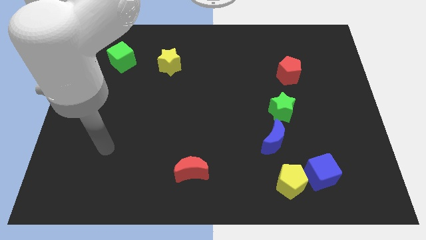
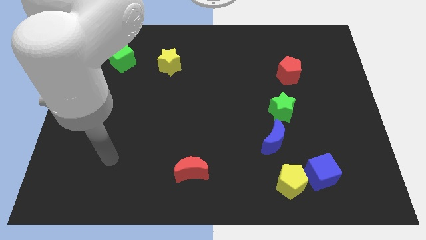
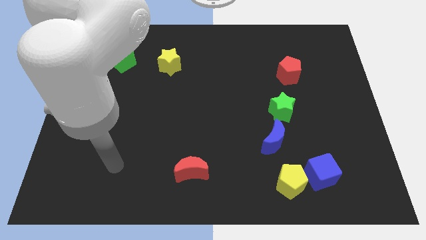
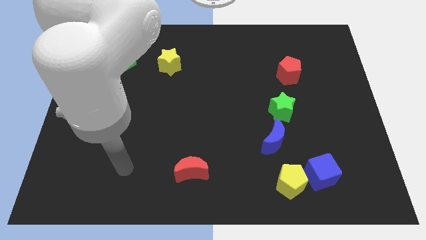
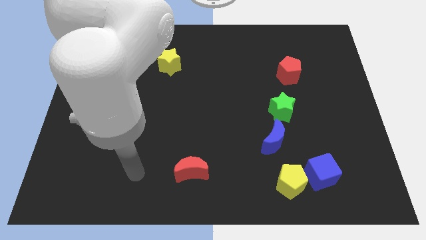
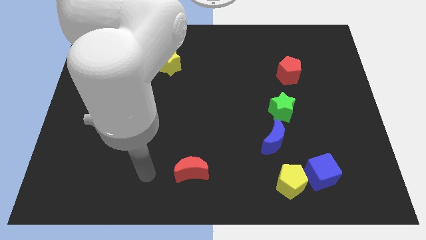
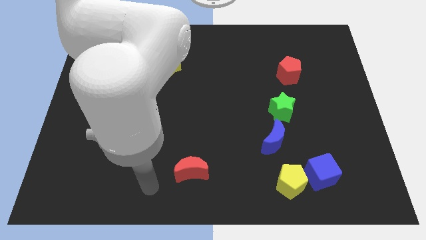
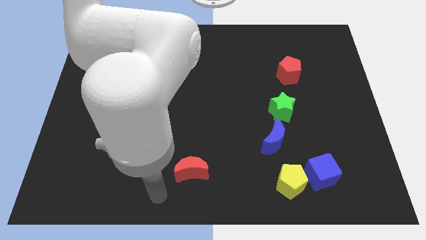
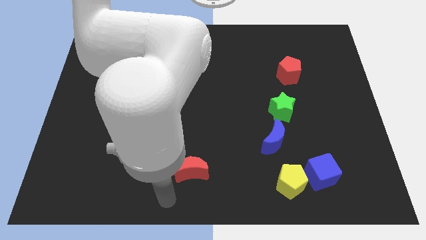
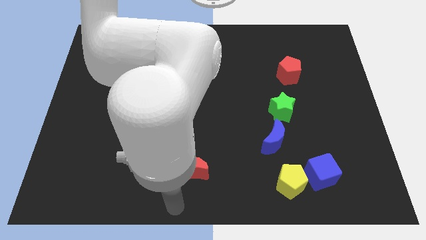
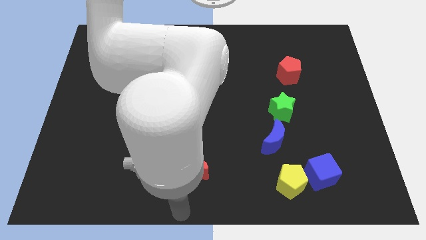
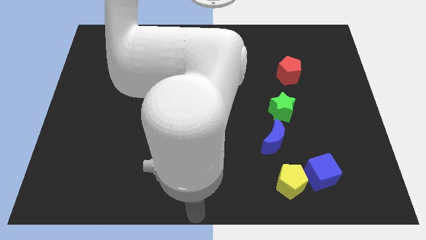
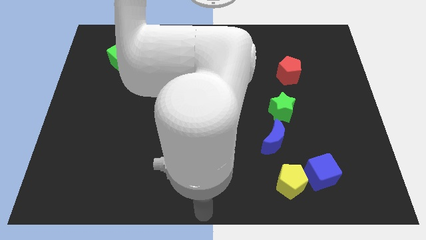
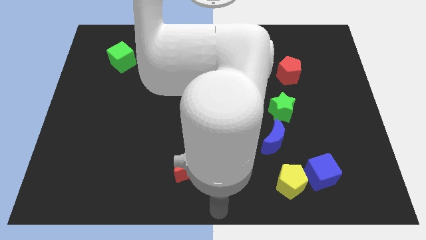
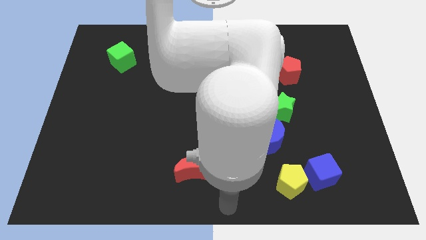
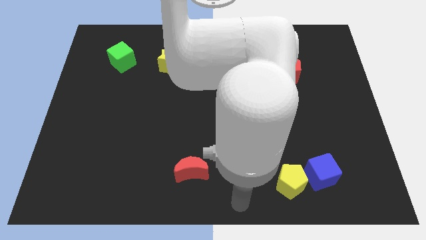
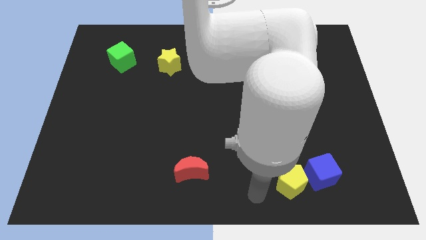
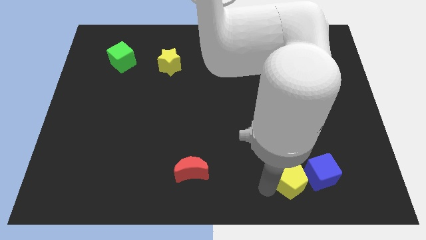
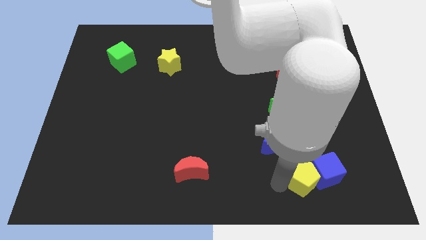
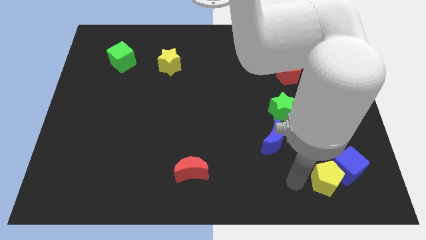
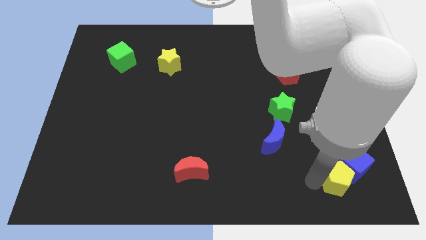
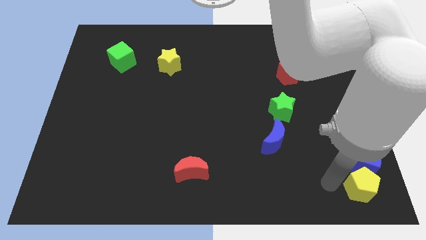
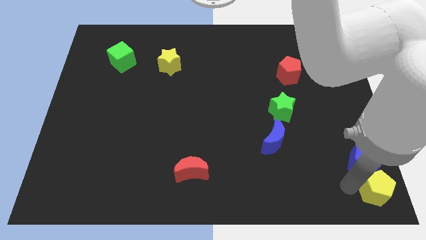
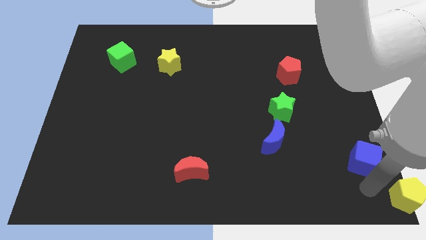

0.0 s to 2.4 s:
separate the blue cube from the yellow pentagon

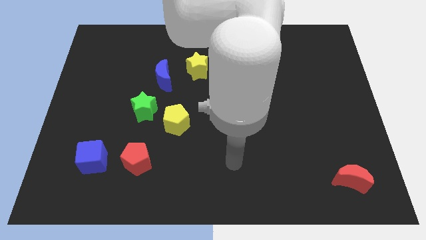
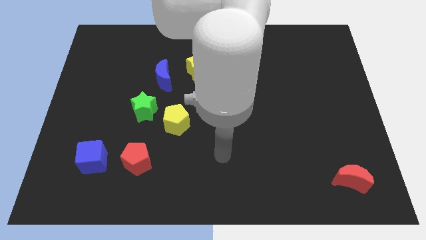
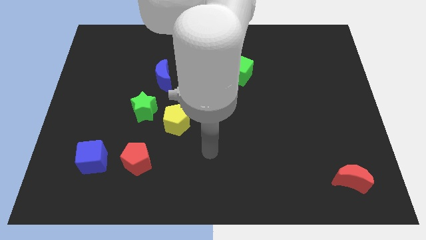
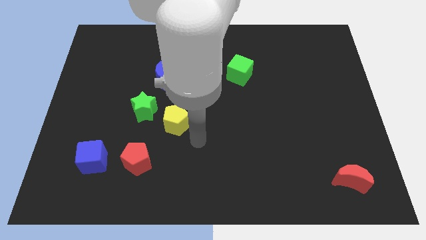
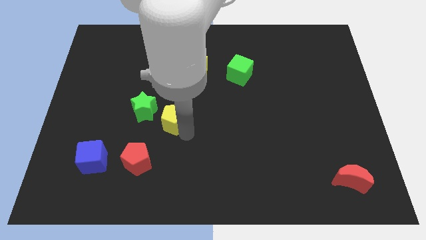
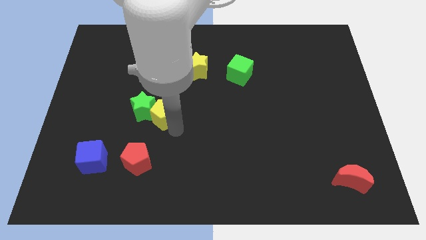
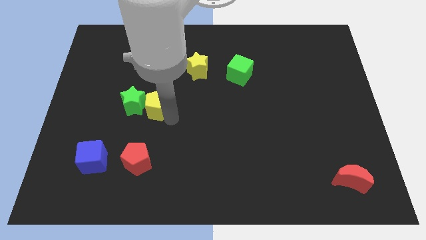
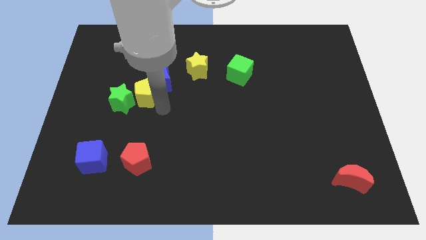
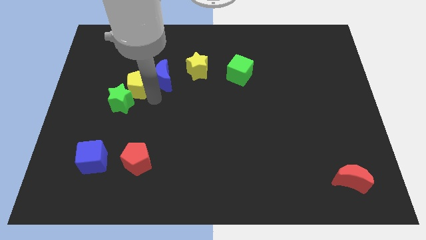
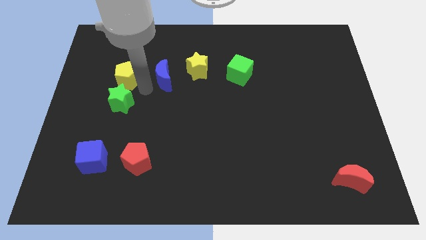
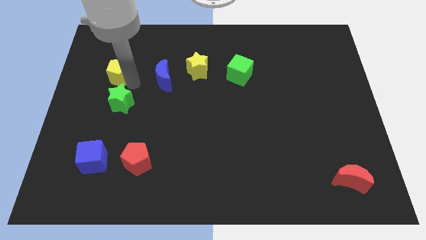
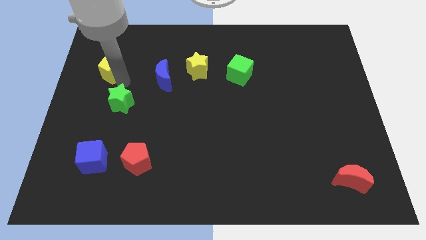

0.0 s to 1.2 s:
move the green star away from the yellow pentagon

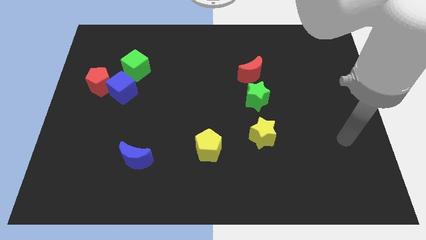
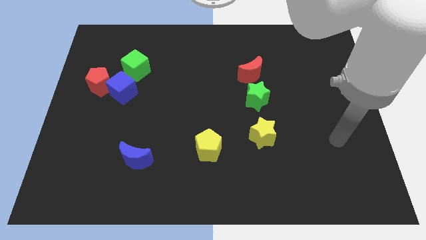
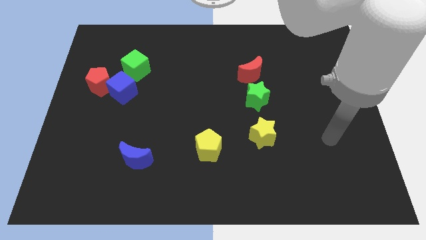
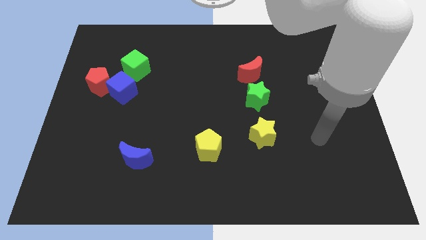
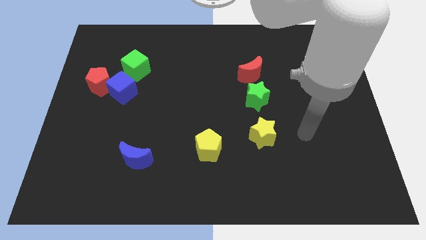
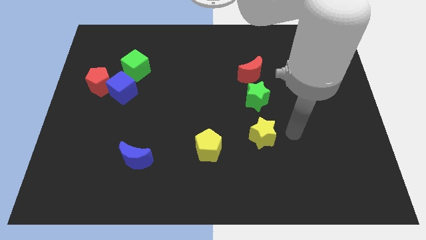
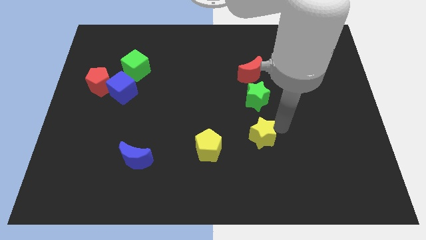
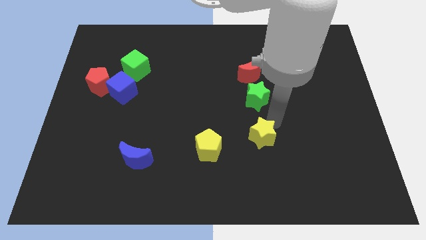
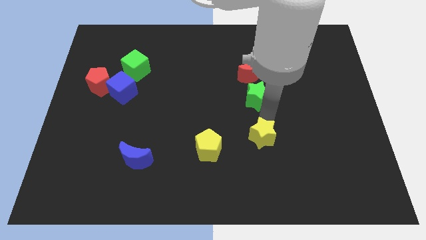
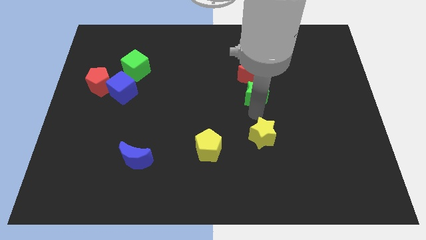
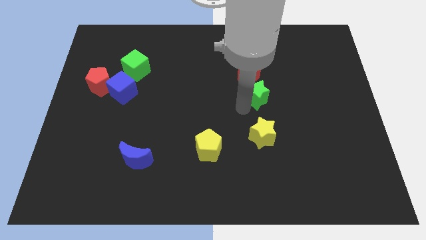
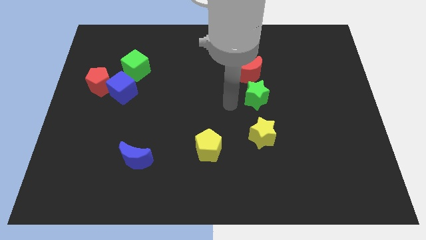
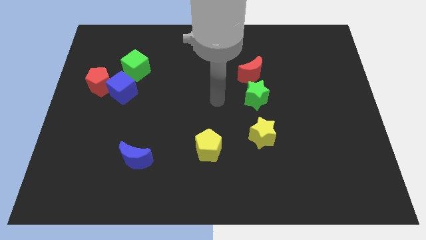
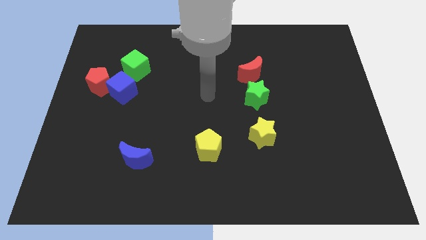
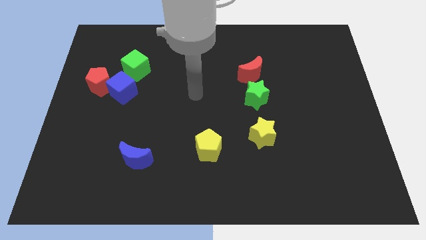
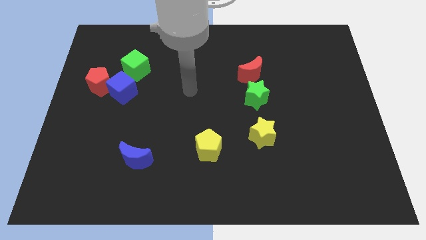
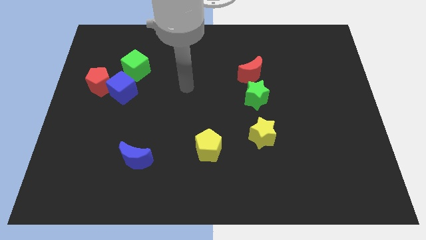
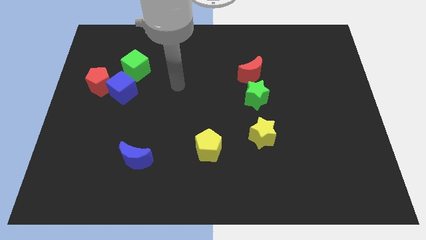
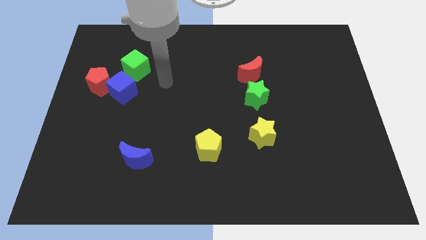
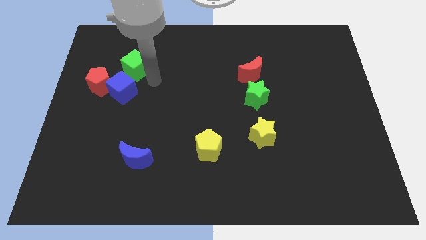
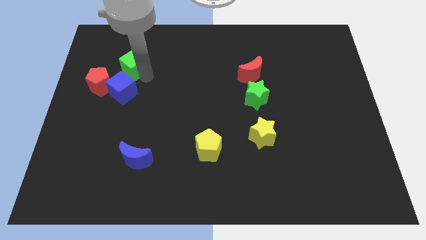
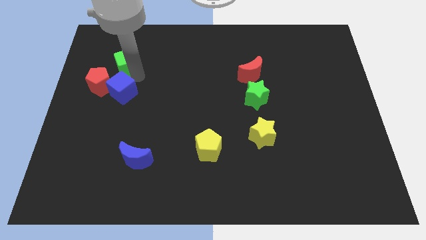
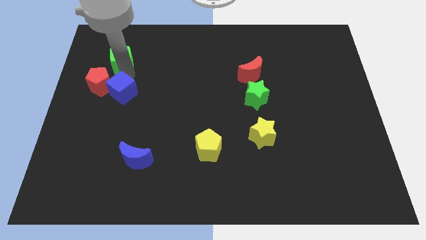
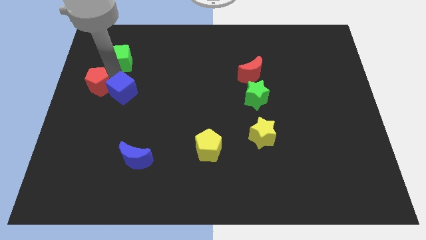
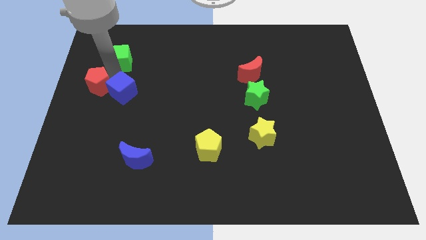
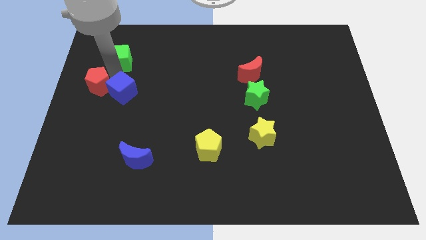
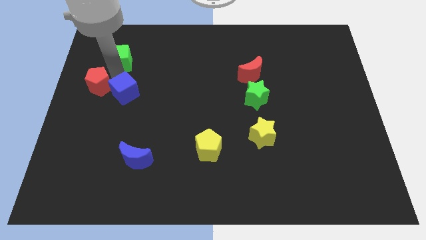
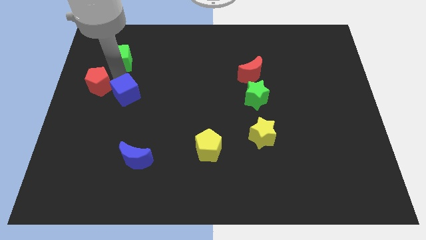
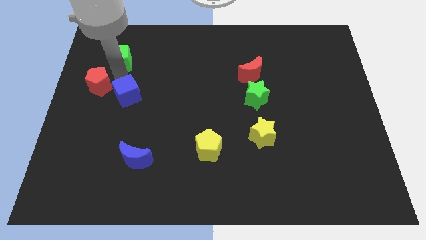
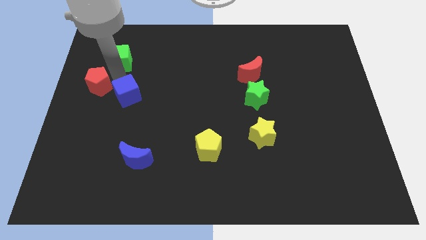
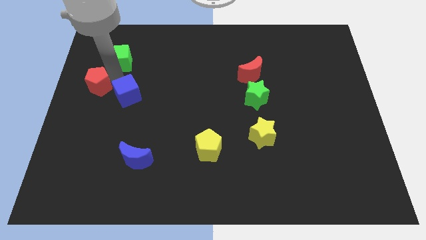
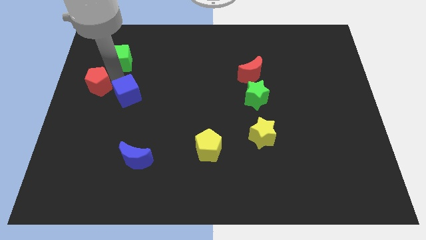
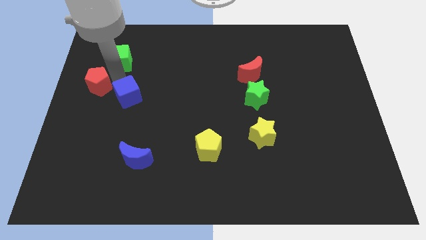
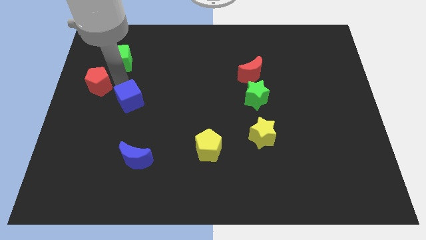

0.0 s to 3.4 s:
pull the blue cube apart from the red pentagon and green cube

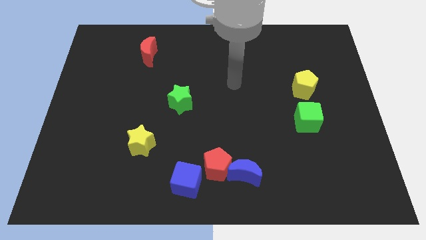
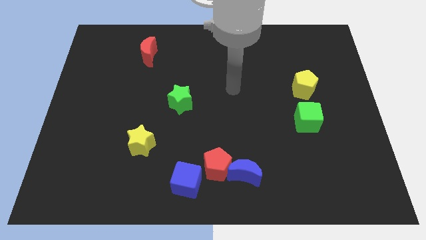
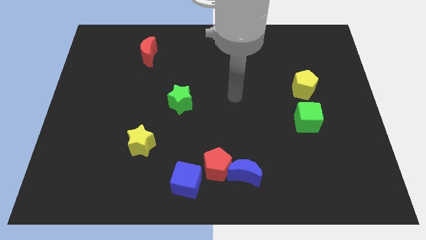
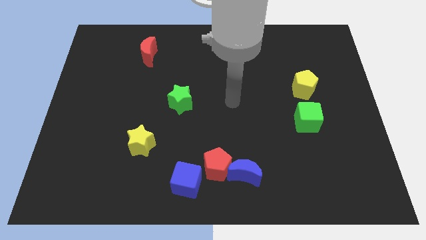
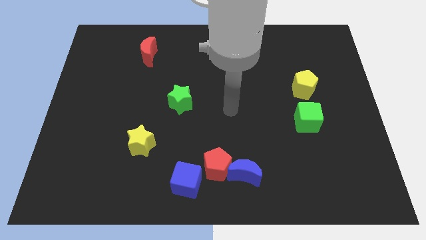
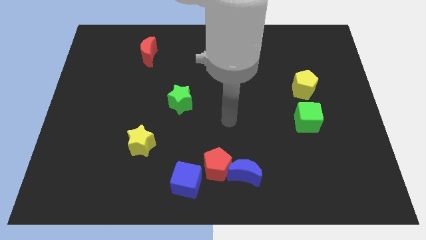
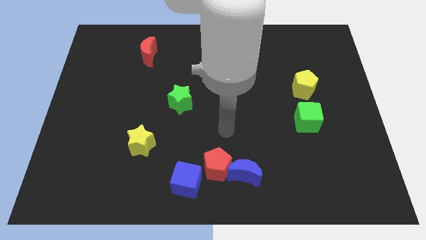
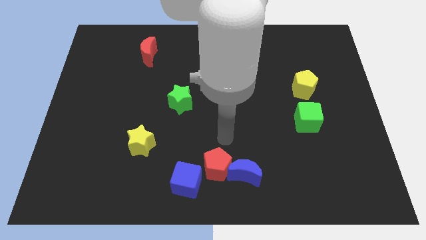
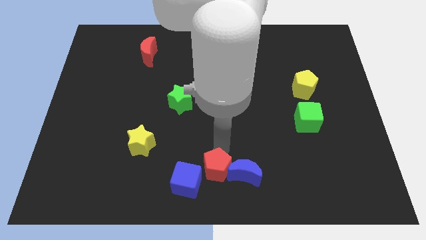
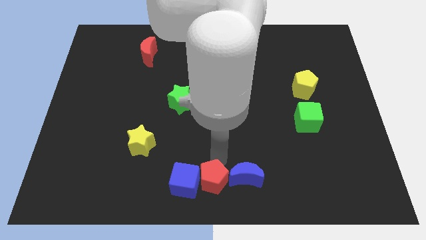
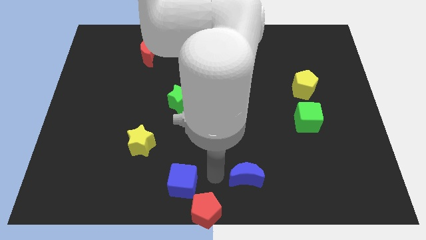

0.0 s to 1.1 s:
separate the blue moon from the red pentagon

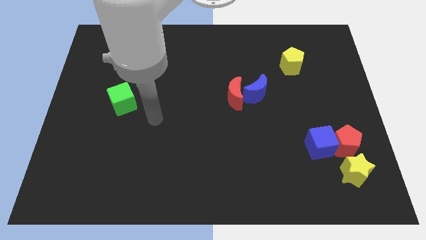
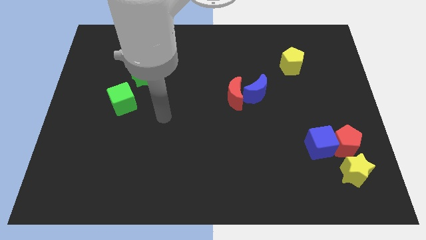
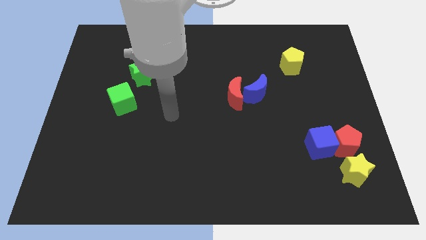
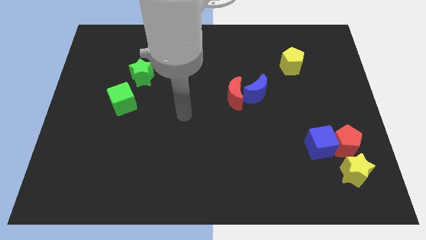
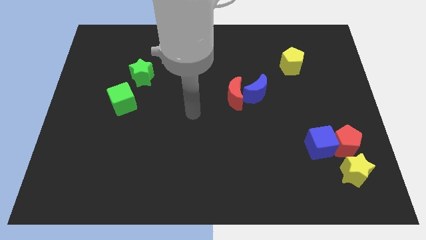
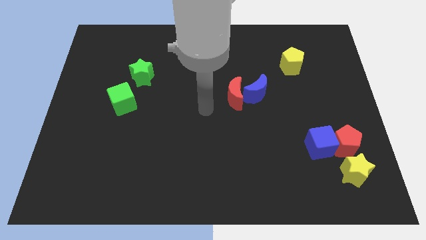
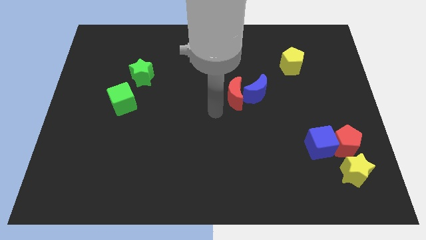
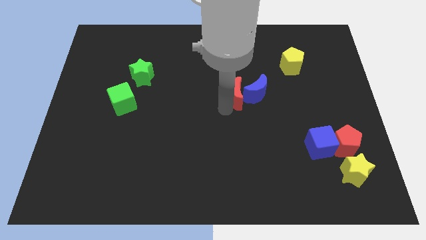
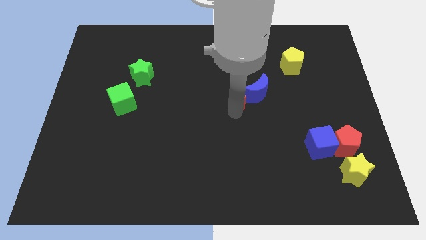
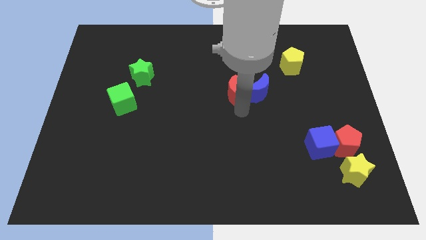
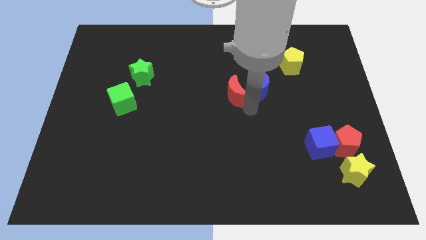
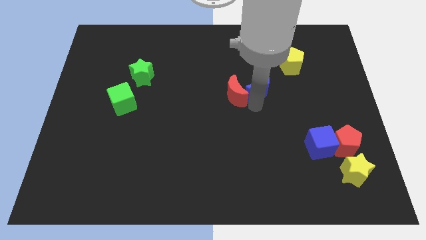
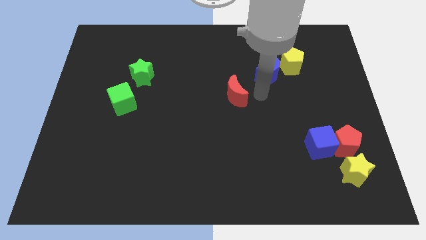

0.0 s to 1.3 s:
move the red moon away from the blue moon

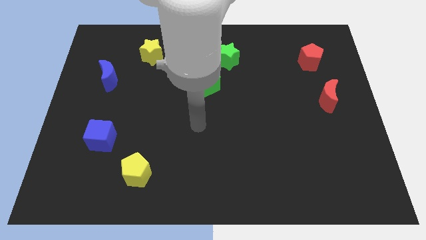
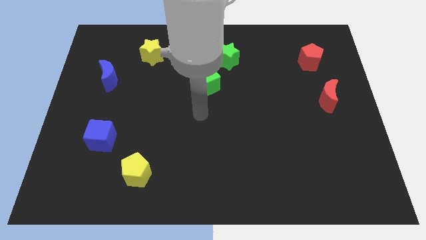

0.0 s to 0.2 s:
pull the green cube apart from the green star
